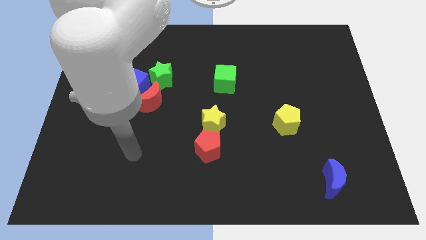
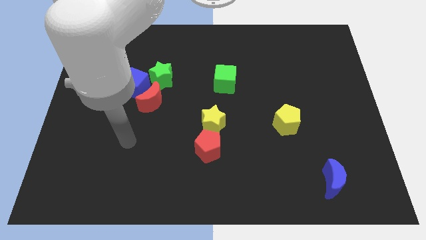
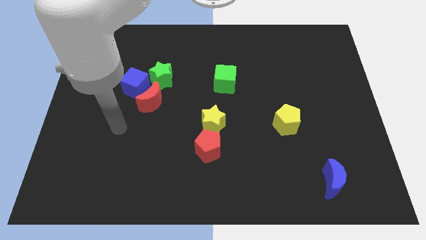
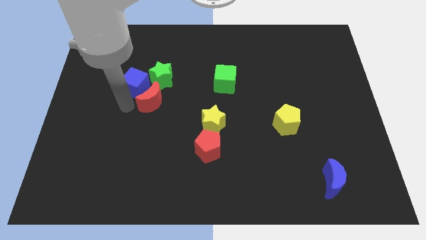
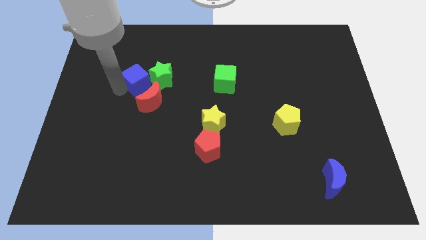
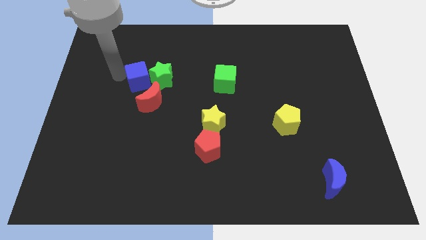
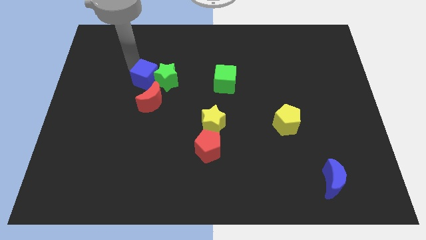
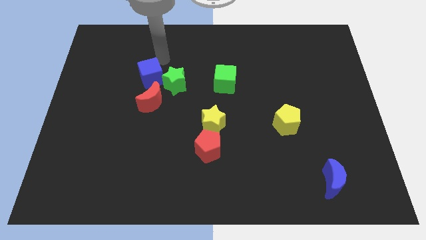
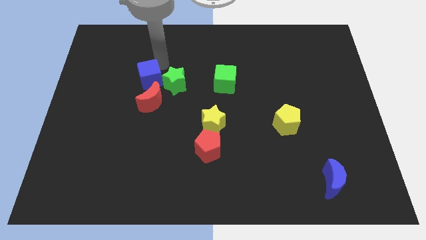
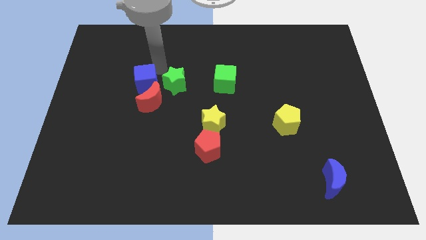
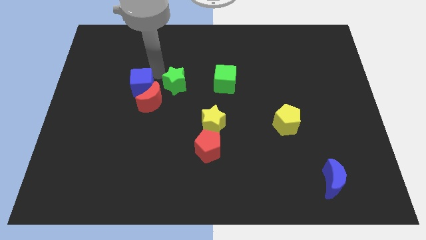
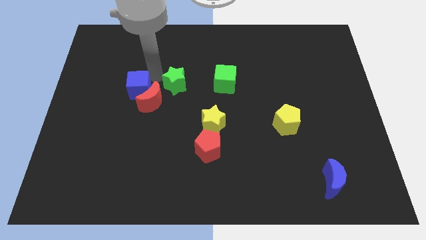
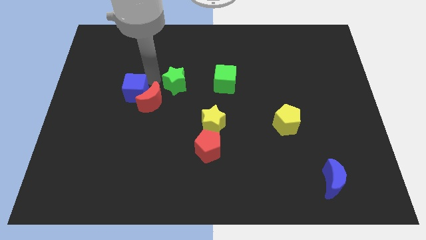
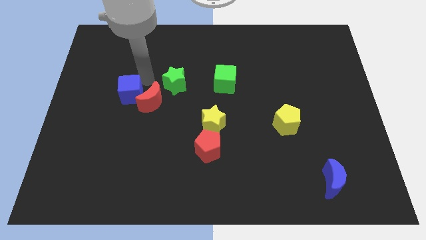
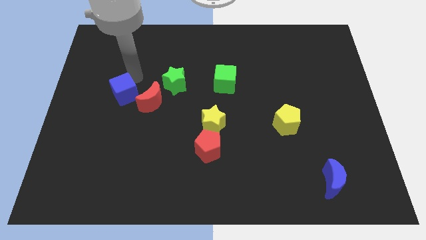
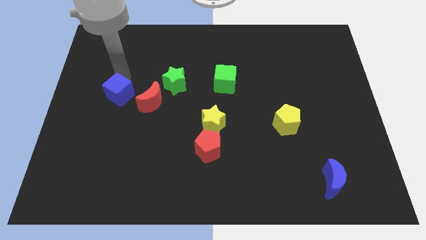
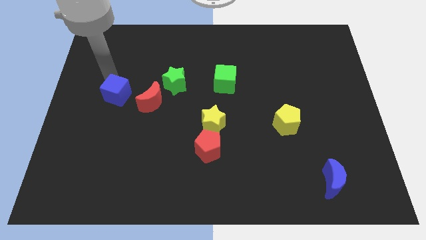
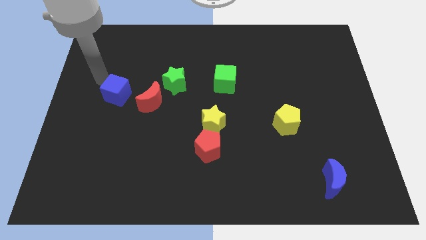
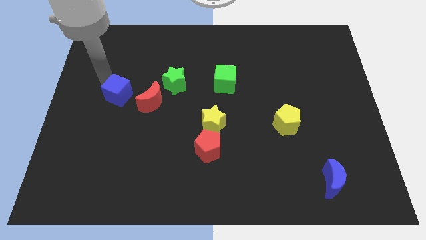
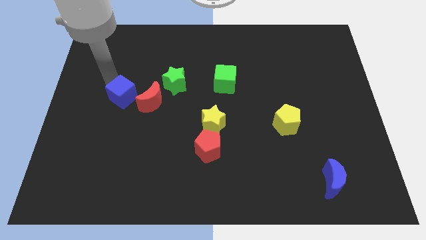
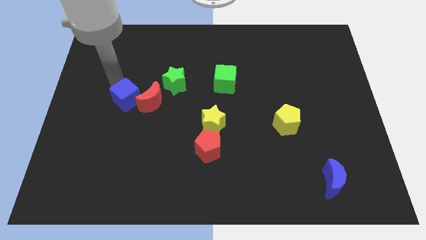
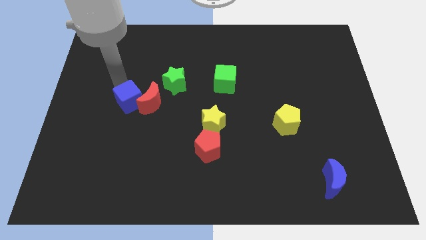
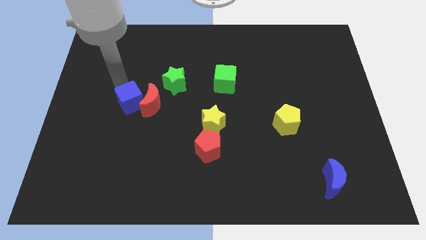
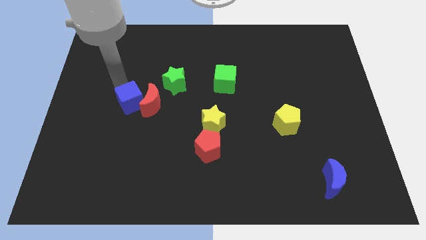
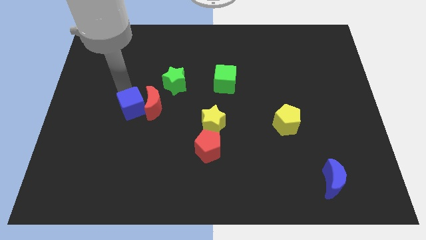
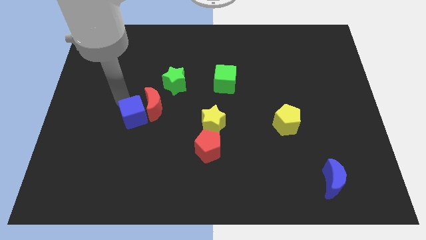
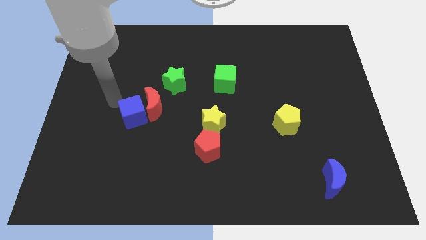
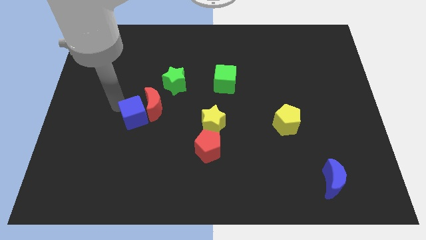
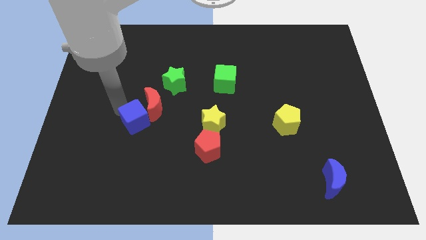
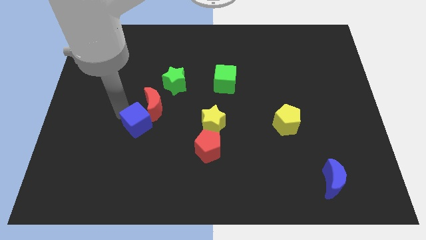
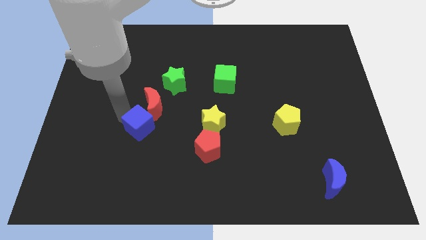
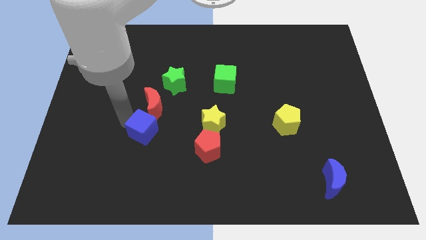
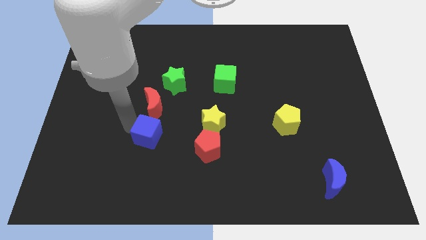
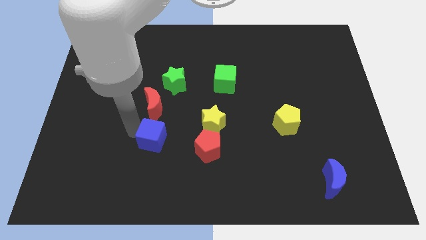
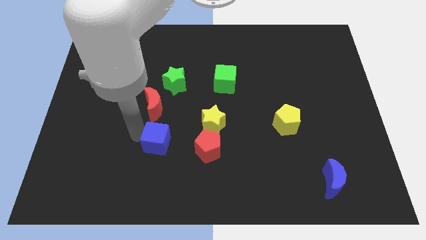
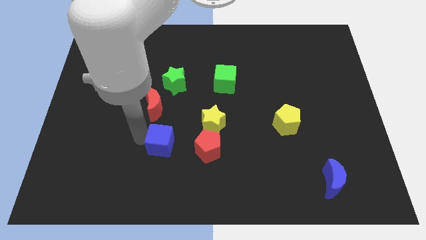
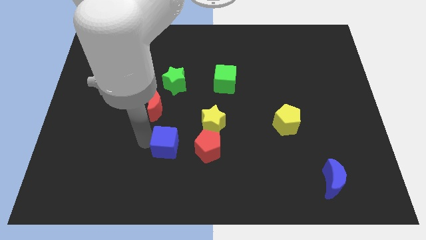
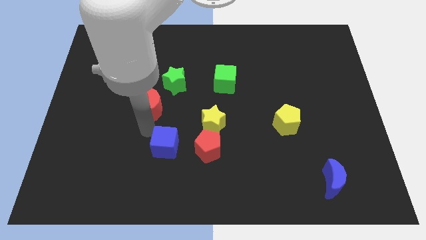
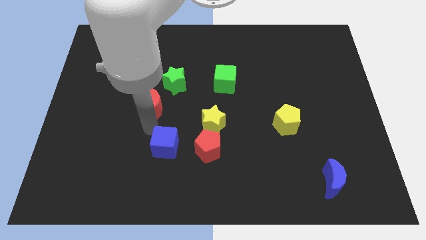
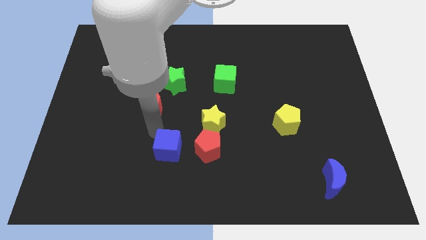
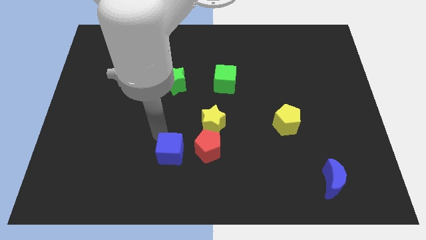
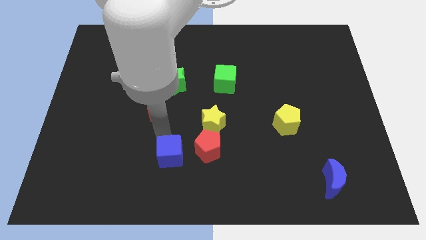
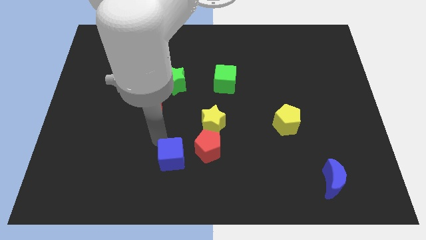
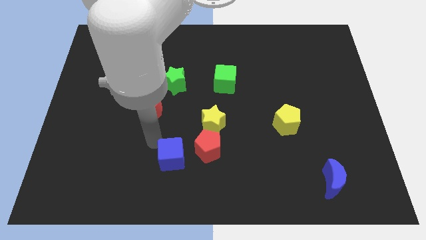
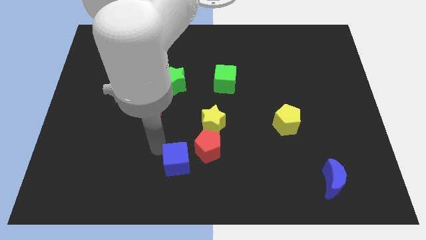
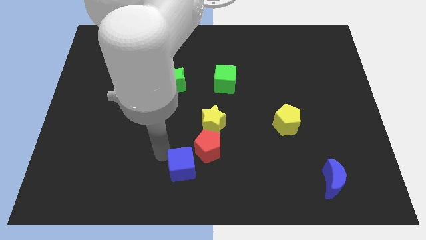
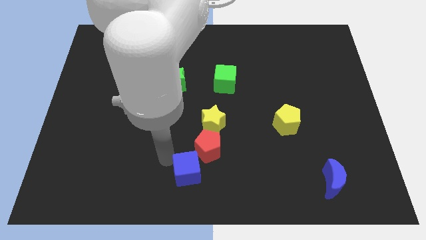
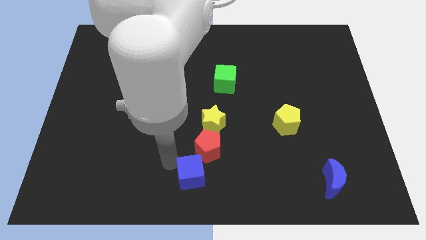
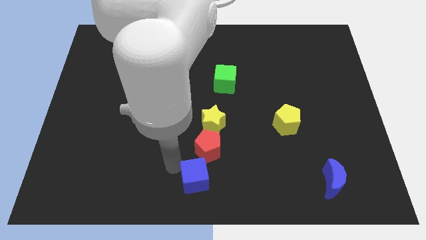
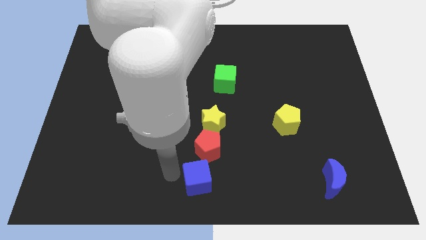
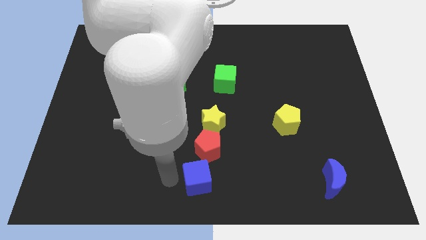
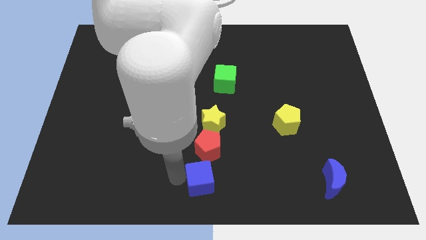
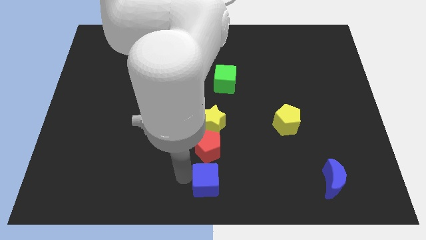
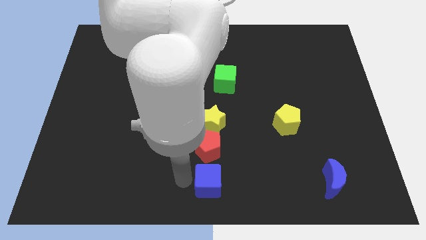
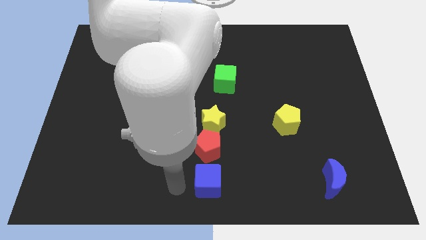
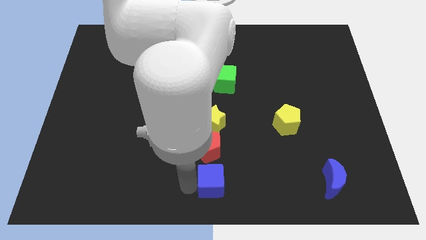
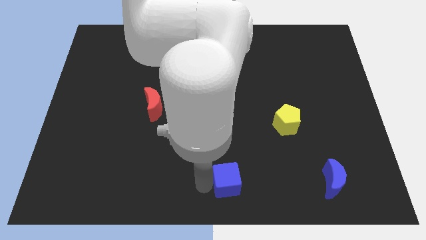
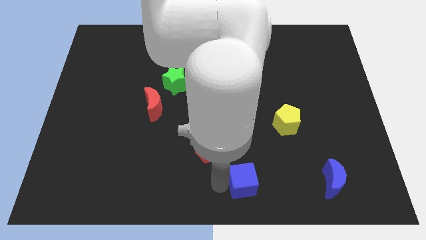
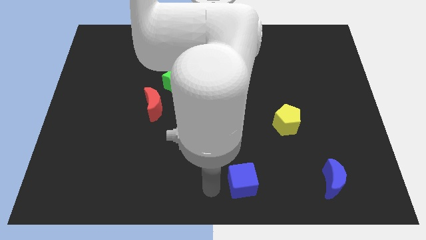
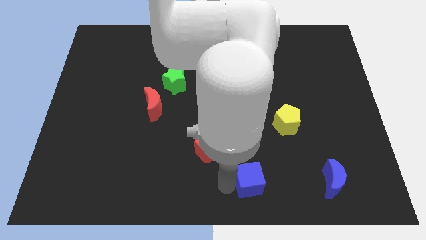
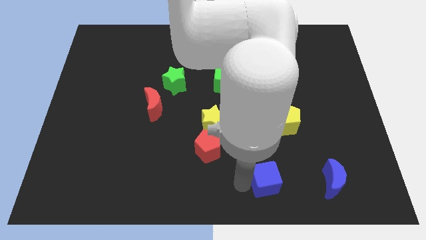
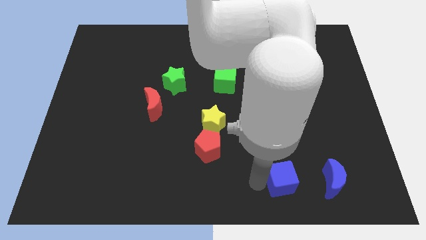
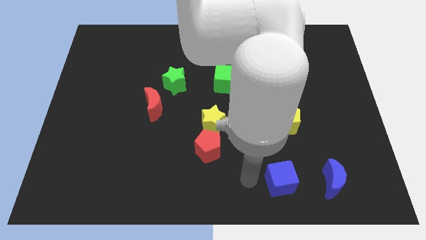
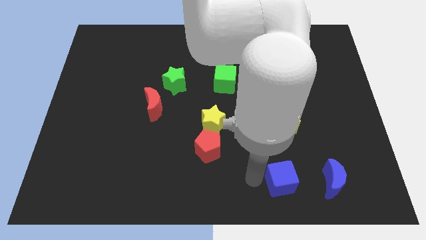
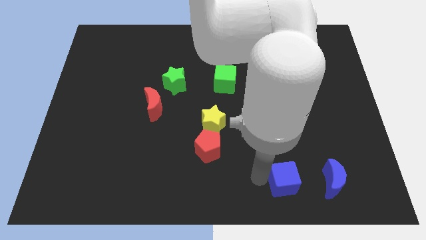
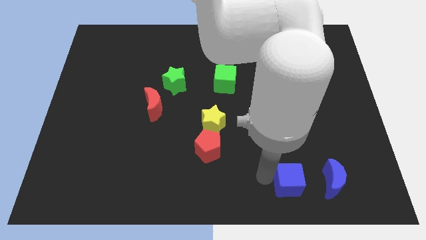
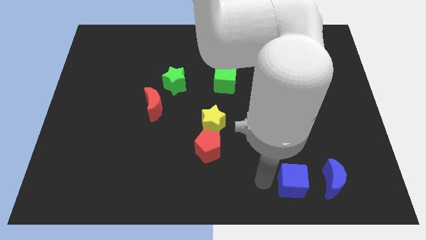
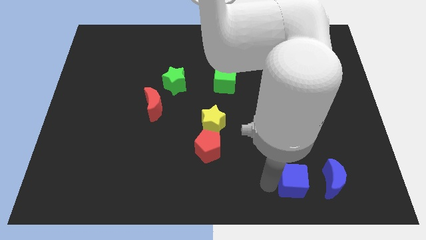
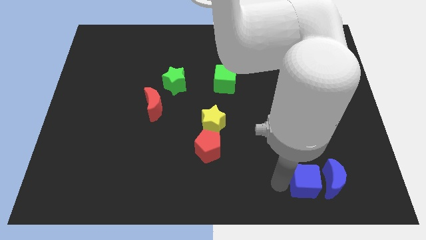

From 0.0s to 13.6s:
push the blue cube close to the blue moon
